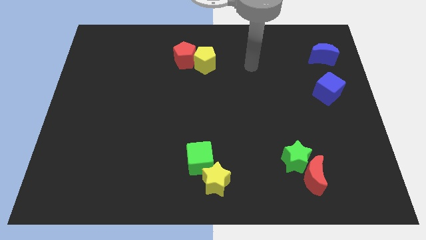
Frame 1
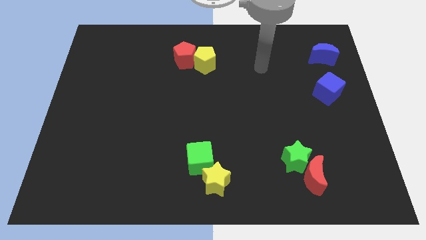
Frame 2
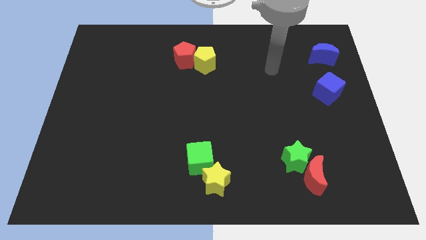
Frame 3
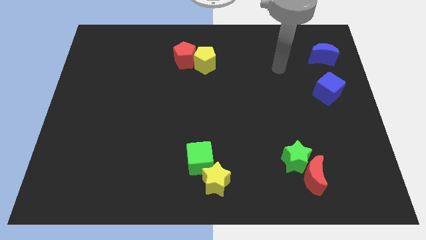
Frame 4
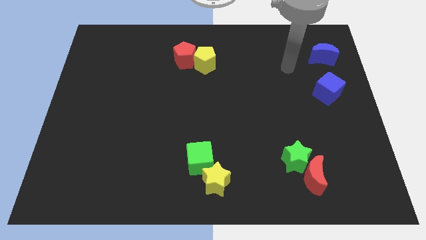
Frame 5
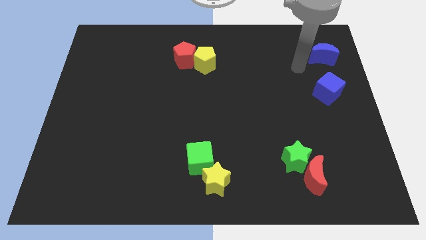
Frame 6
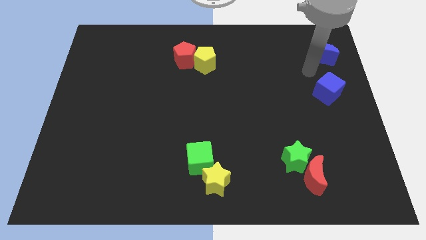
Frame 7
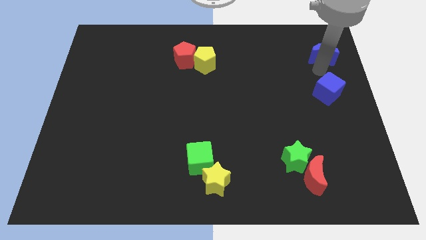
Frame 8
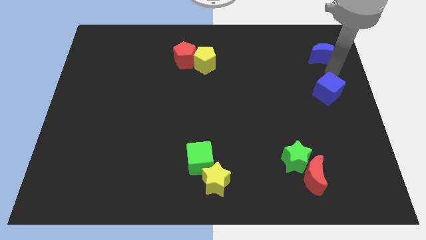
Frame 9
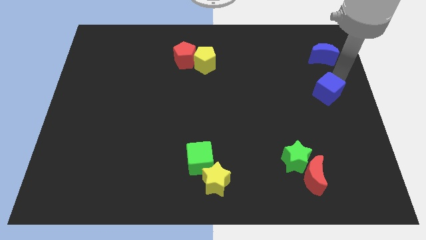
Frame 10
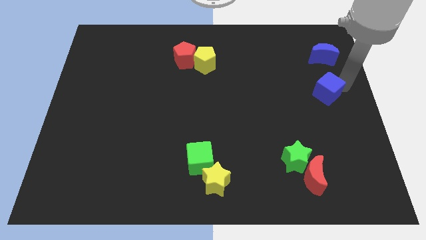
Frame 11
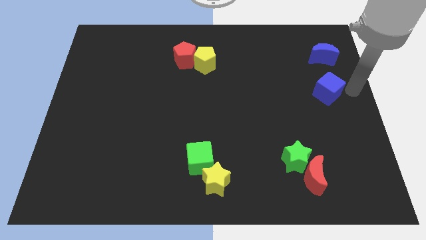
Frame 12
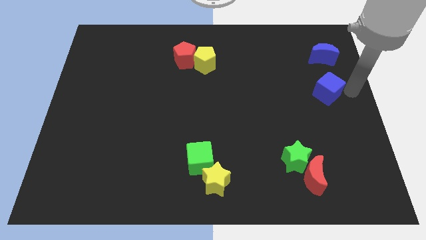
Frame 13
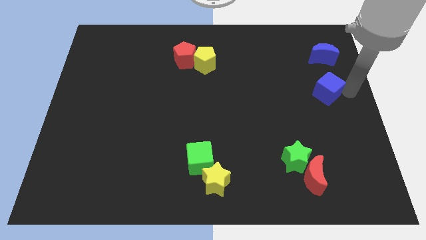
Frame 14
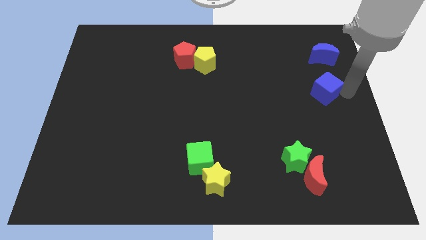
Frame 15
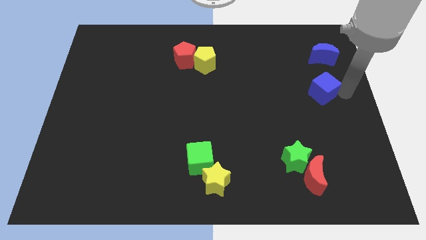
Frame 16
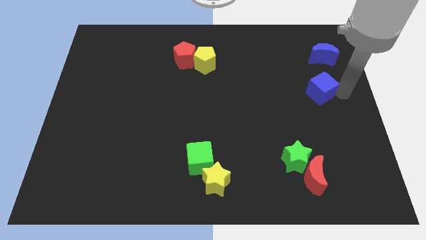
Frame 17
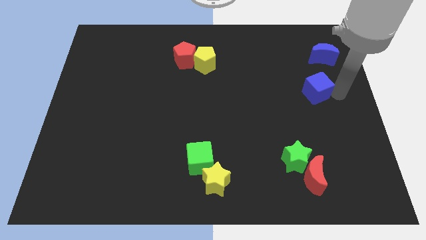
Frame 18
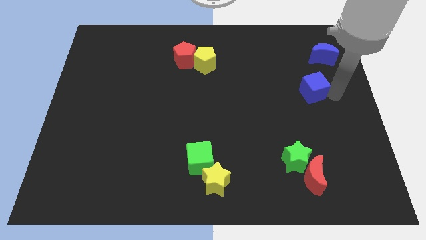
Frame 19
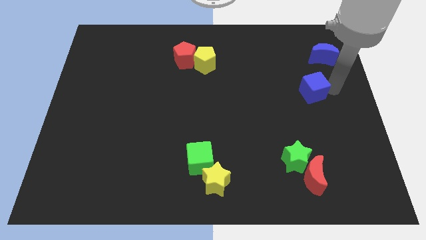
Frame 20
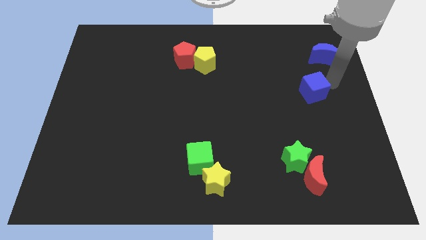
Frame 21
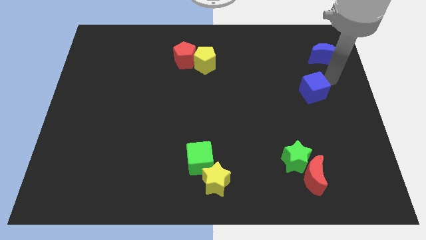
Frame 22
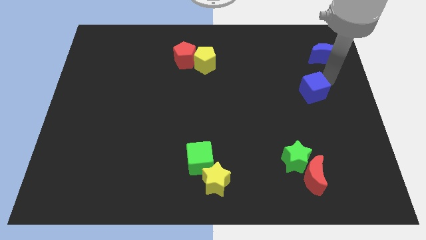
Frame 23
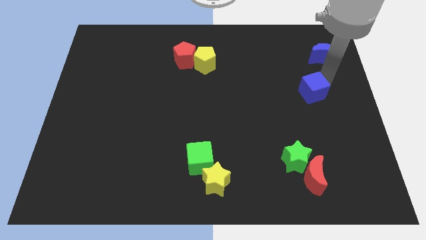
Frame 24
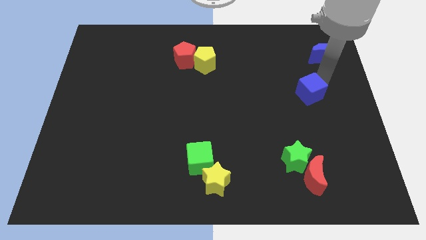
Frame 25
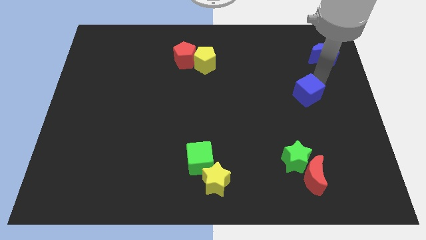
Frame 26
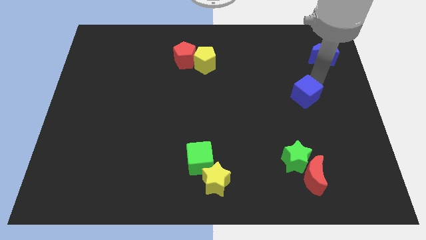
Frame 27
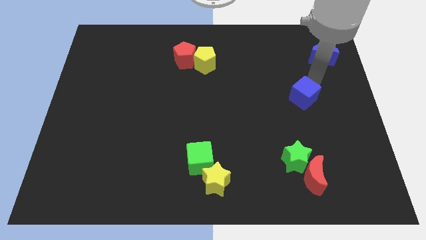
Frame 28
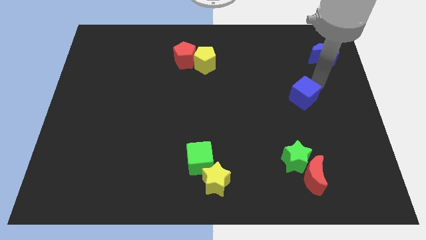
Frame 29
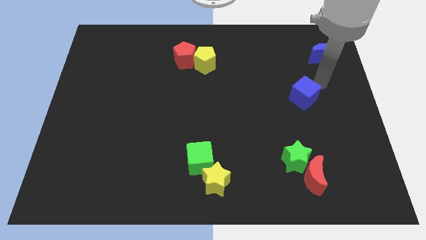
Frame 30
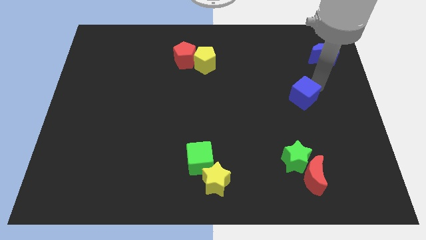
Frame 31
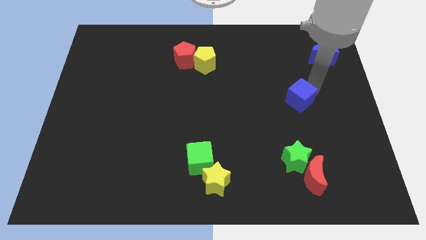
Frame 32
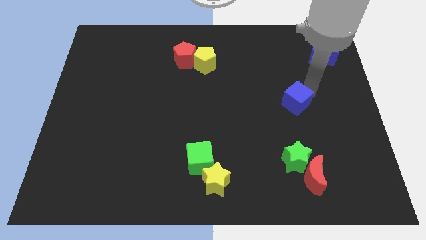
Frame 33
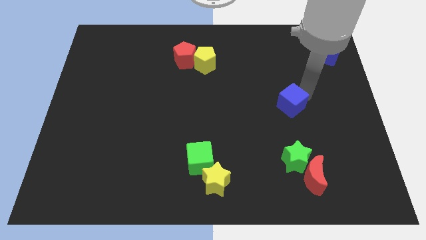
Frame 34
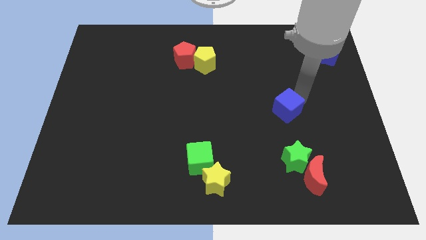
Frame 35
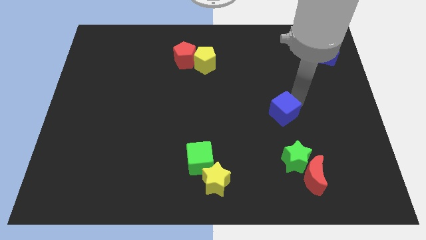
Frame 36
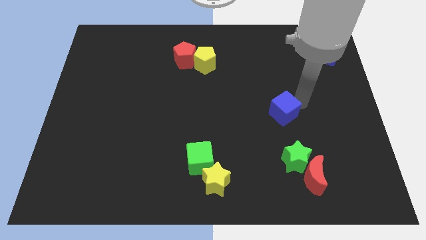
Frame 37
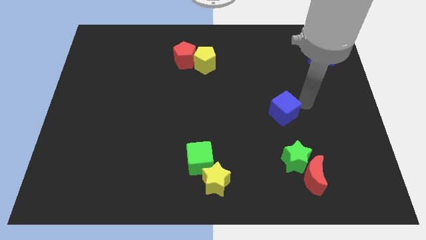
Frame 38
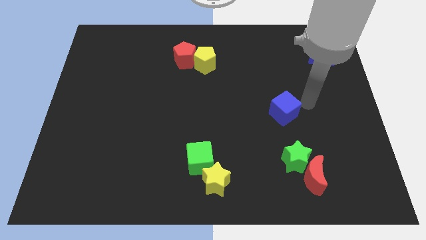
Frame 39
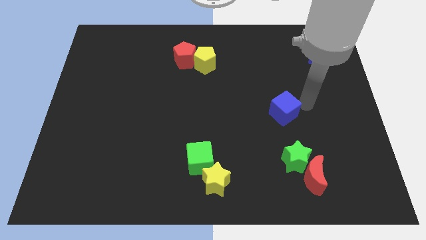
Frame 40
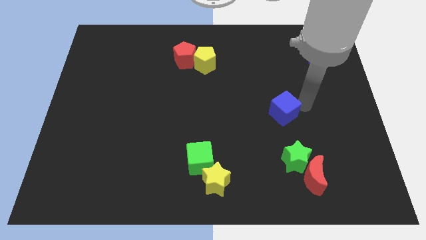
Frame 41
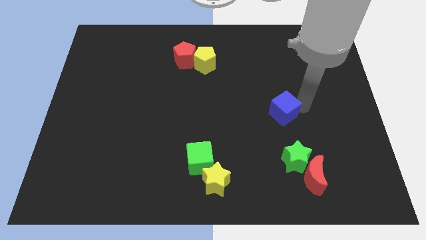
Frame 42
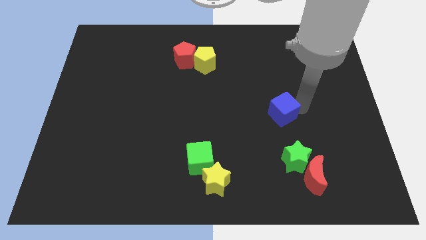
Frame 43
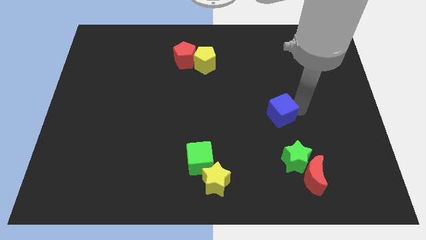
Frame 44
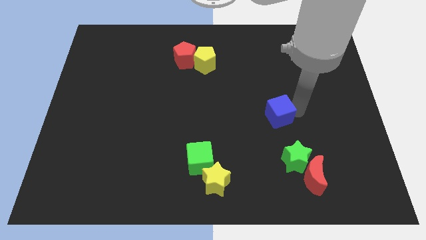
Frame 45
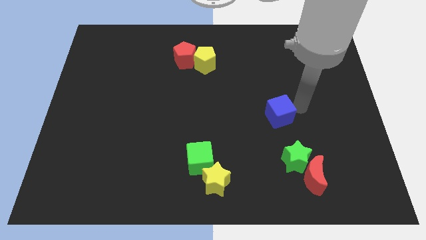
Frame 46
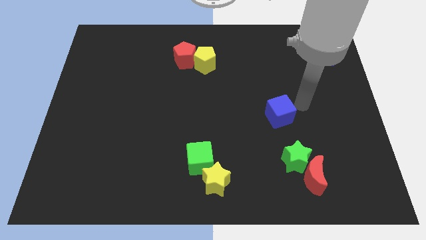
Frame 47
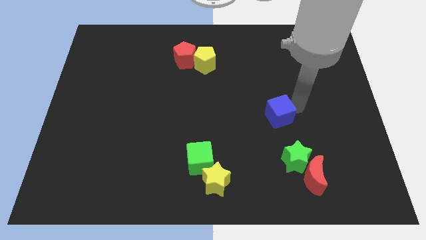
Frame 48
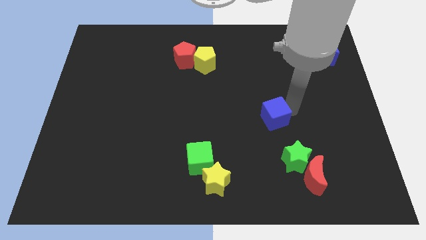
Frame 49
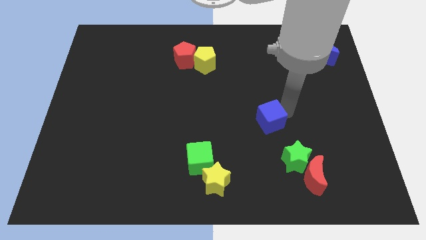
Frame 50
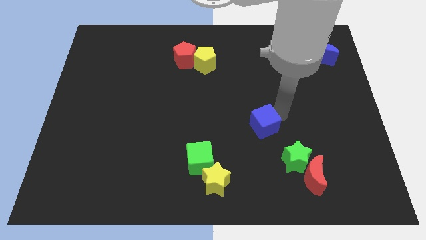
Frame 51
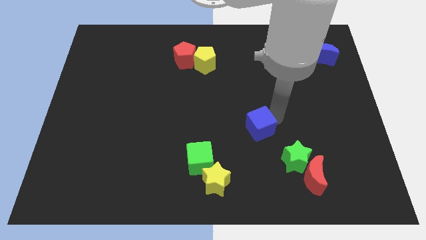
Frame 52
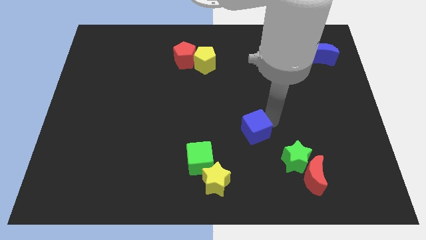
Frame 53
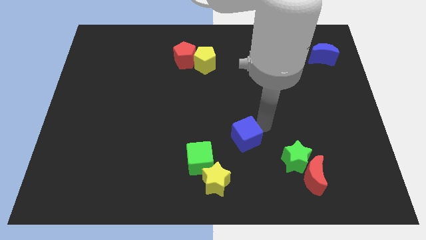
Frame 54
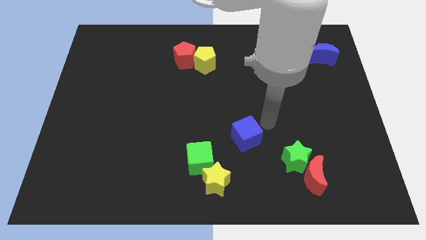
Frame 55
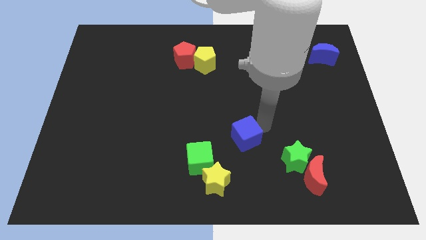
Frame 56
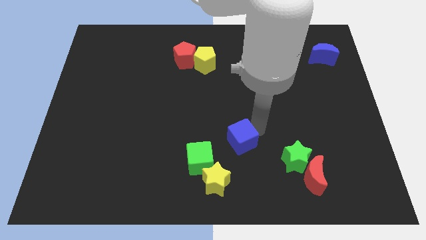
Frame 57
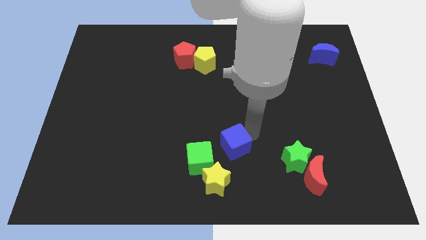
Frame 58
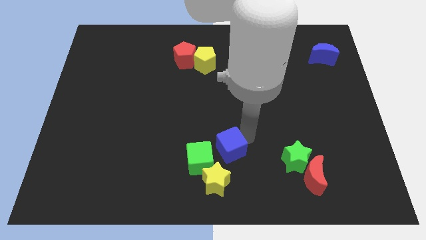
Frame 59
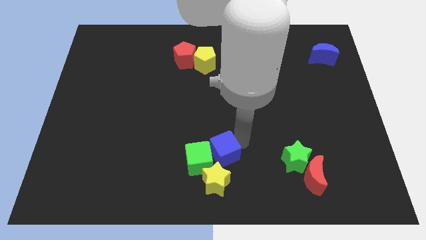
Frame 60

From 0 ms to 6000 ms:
push the blue cube to the green cube

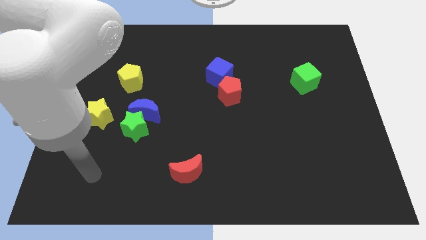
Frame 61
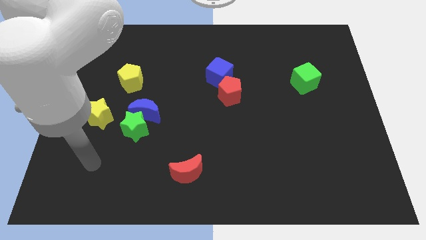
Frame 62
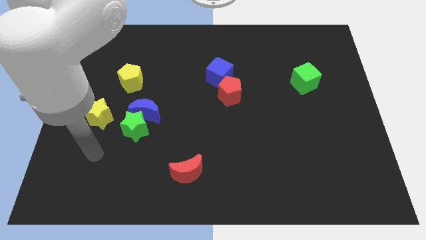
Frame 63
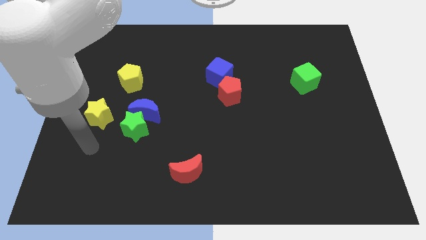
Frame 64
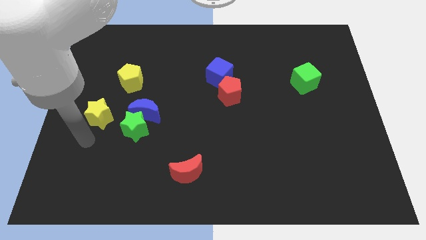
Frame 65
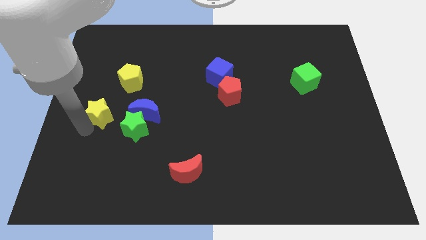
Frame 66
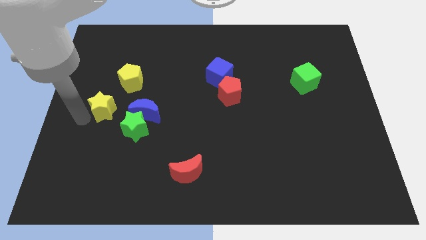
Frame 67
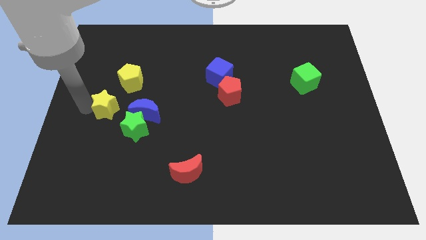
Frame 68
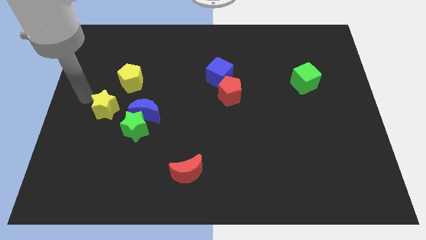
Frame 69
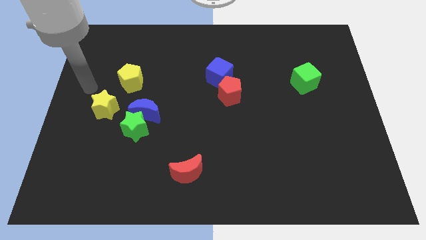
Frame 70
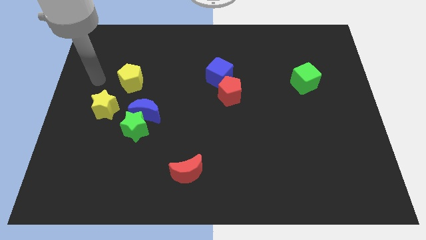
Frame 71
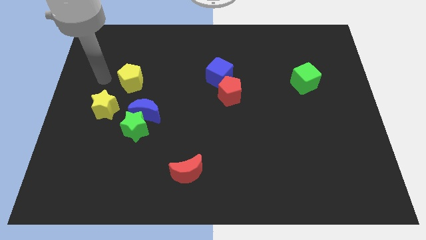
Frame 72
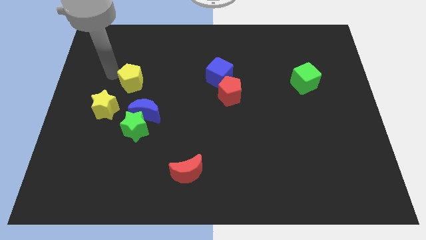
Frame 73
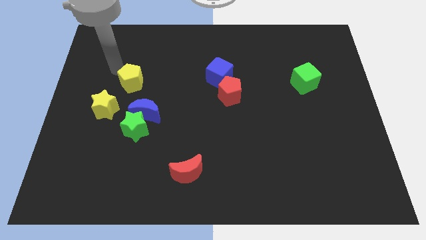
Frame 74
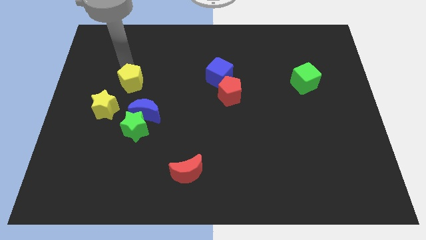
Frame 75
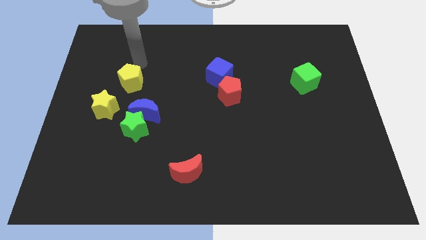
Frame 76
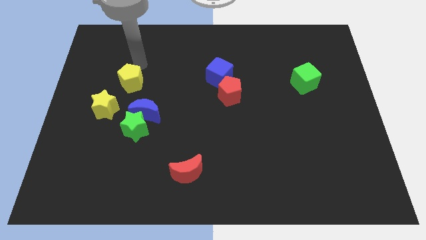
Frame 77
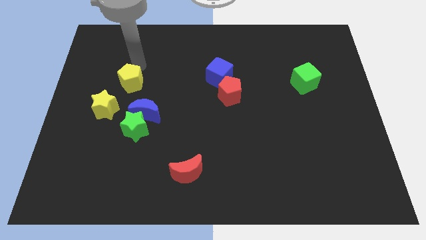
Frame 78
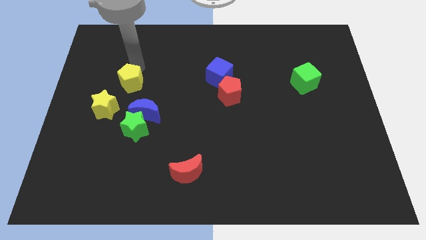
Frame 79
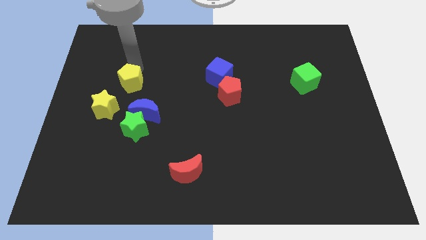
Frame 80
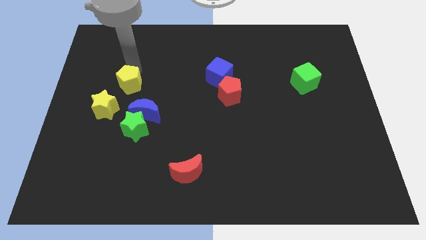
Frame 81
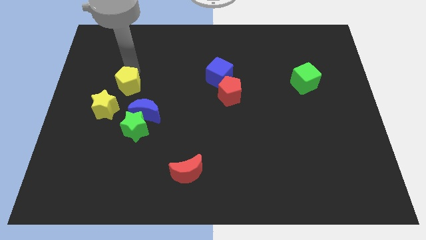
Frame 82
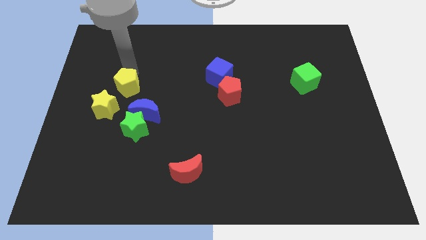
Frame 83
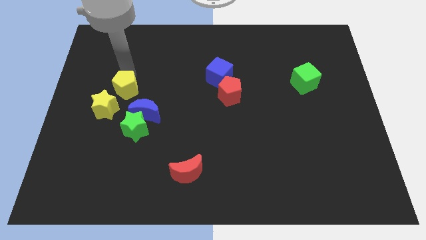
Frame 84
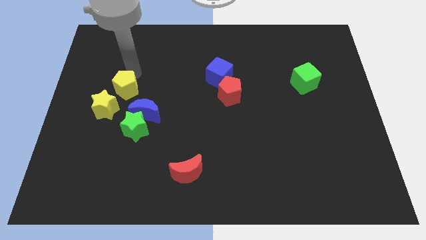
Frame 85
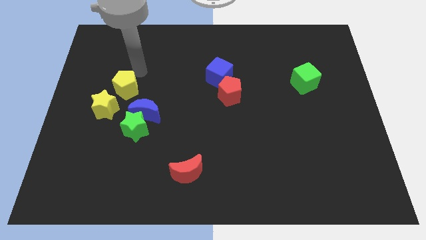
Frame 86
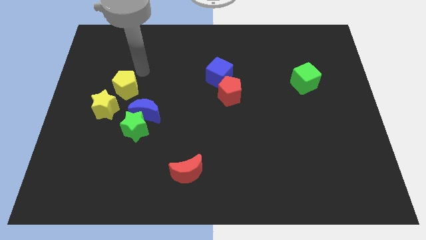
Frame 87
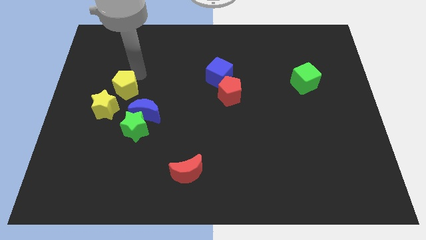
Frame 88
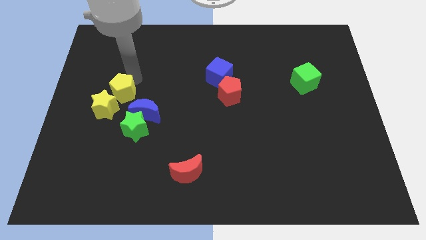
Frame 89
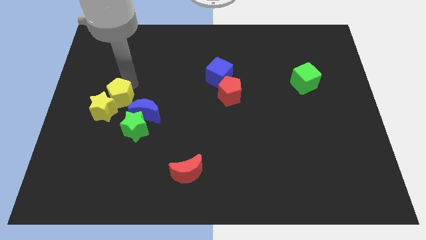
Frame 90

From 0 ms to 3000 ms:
slide the yellow pentagon close to the yellow star
